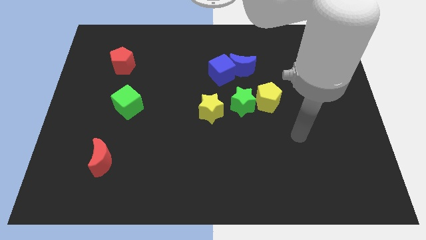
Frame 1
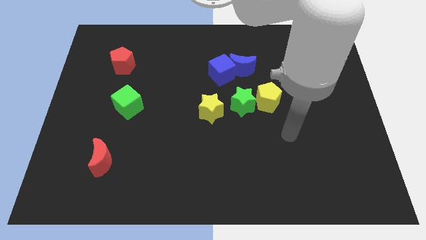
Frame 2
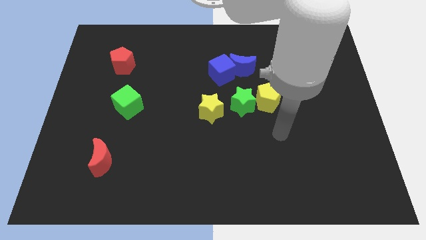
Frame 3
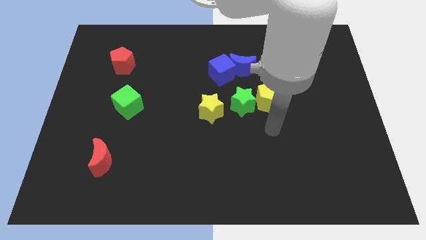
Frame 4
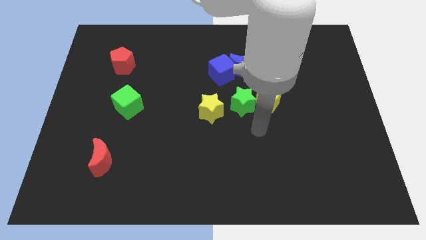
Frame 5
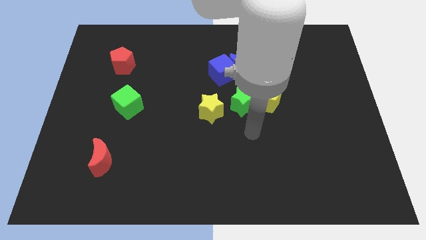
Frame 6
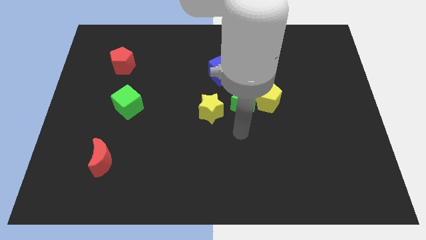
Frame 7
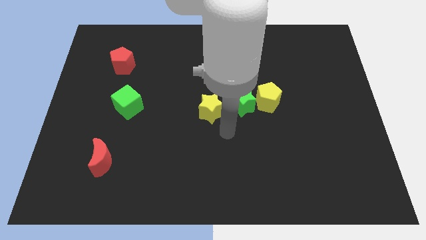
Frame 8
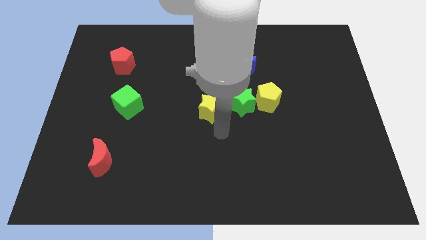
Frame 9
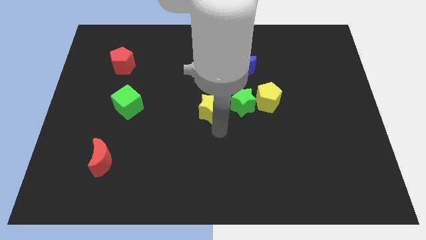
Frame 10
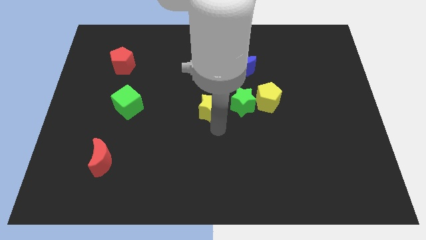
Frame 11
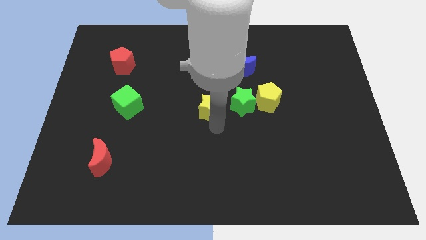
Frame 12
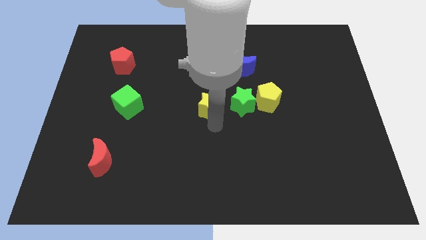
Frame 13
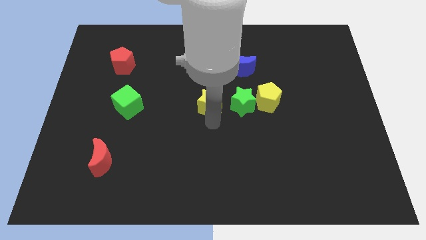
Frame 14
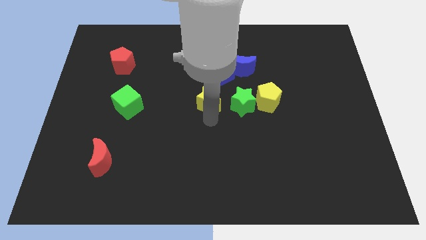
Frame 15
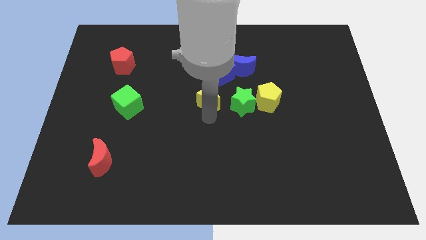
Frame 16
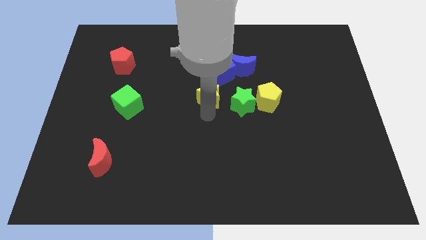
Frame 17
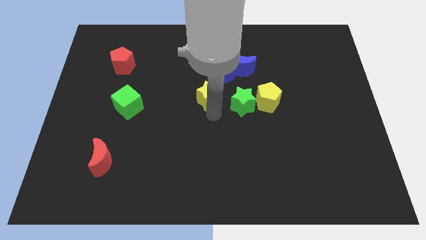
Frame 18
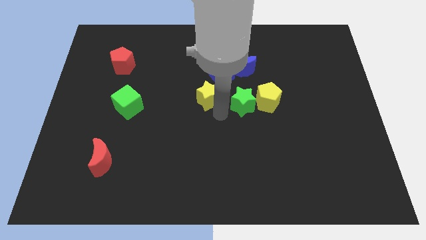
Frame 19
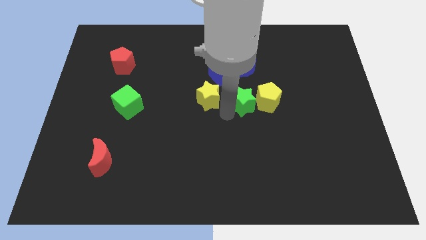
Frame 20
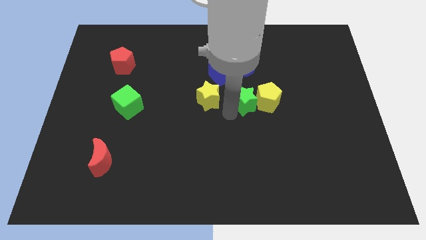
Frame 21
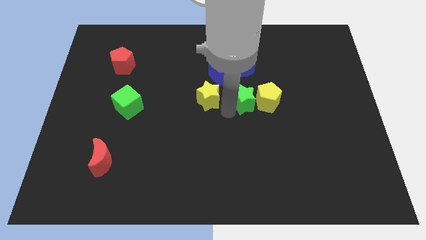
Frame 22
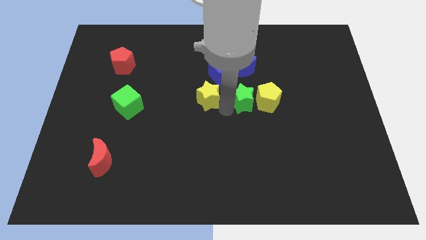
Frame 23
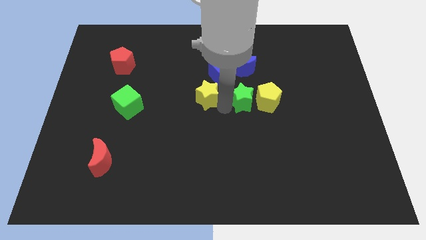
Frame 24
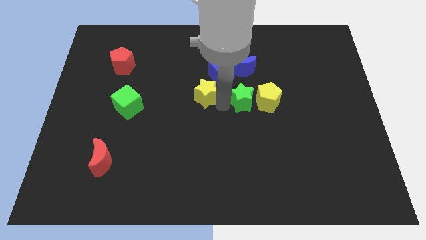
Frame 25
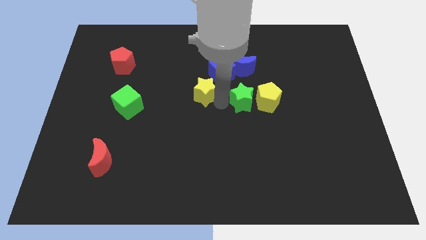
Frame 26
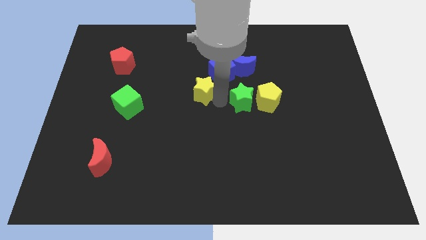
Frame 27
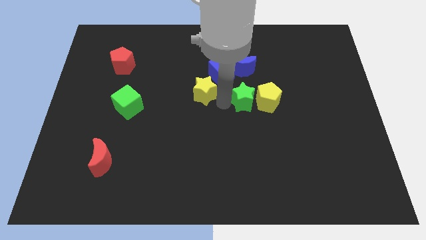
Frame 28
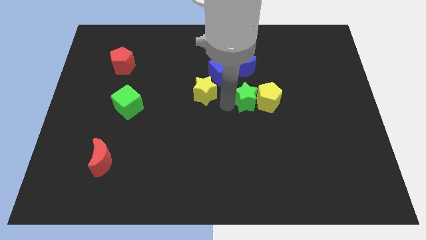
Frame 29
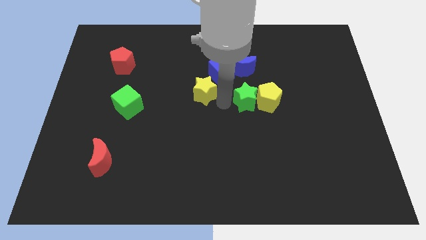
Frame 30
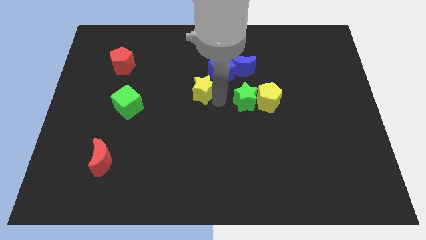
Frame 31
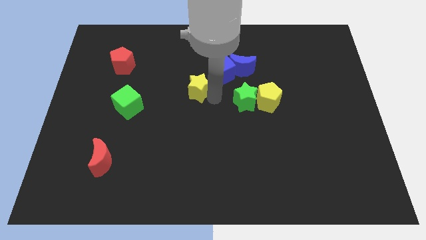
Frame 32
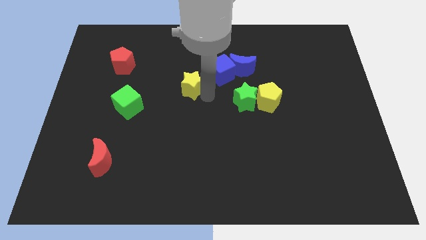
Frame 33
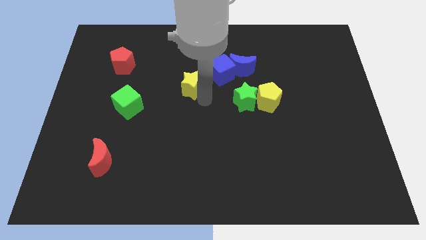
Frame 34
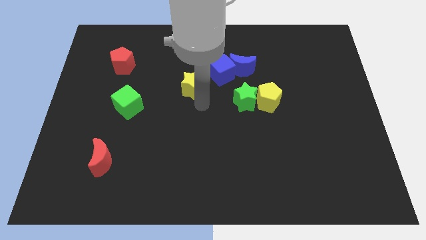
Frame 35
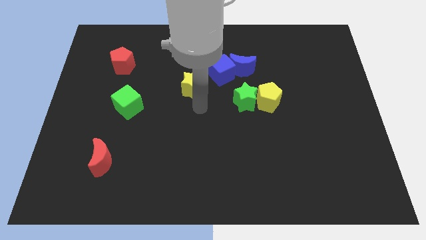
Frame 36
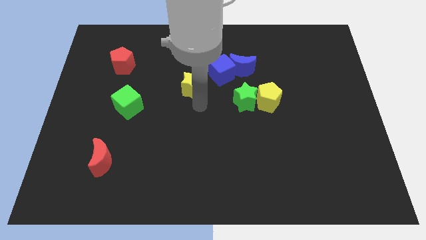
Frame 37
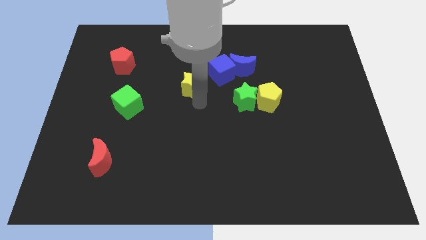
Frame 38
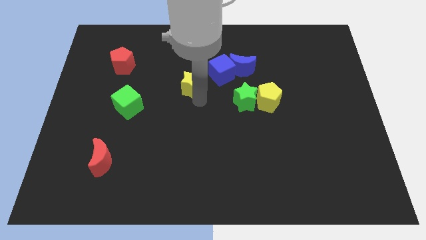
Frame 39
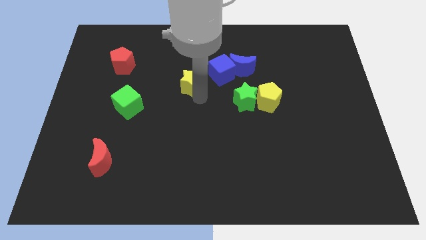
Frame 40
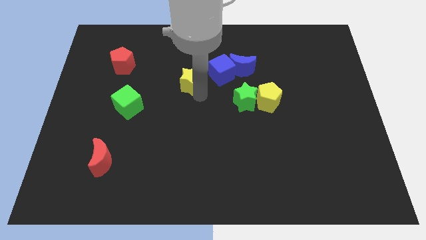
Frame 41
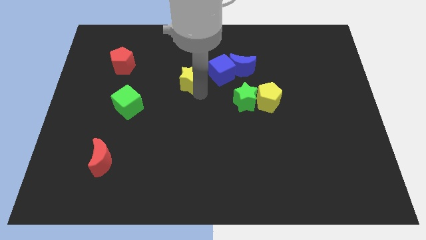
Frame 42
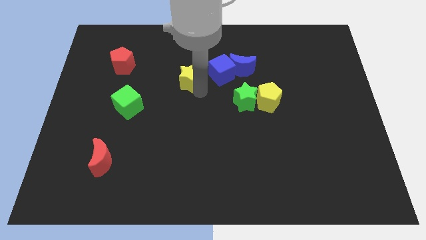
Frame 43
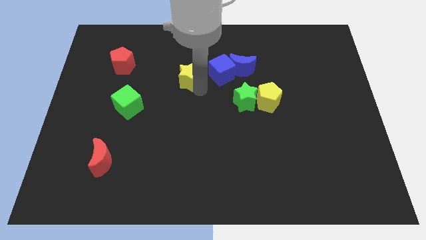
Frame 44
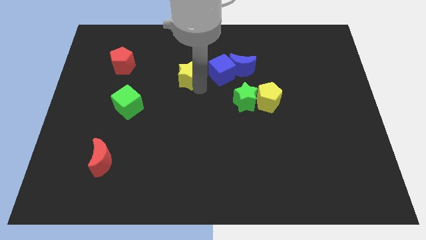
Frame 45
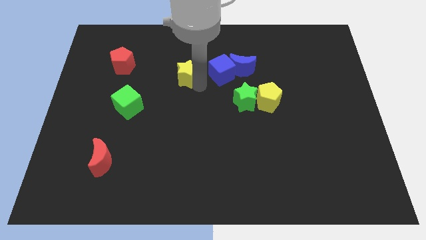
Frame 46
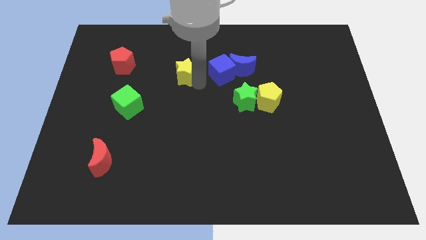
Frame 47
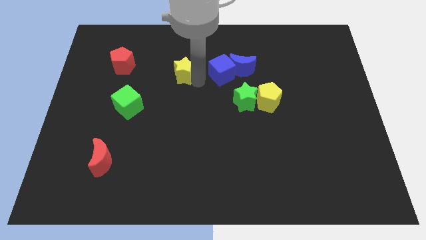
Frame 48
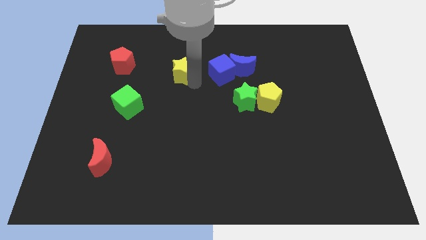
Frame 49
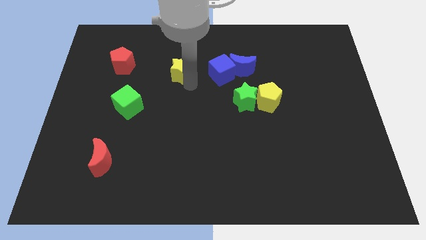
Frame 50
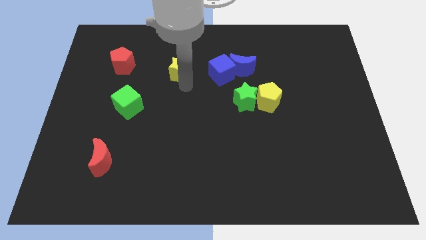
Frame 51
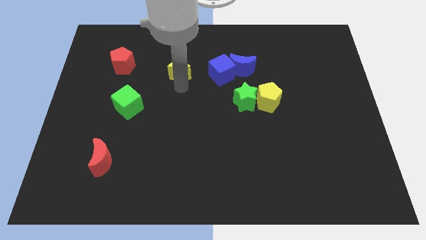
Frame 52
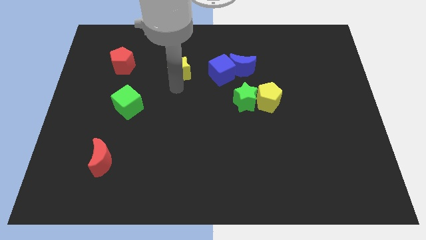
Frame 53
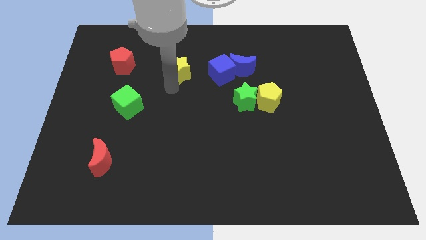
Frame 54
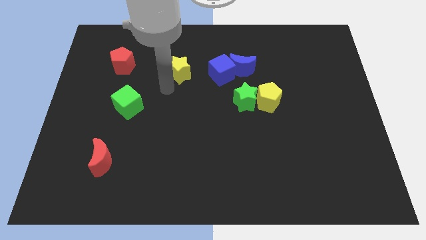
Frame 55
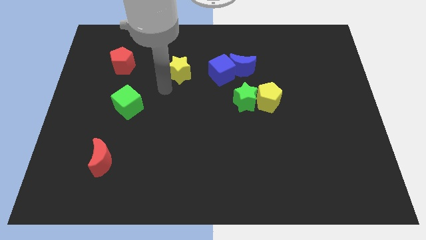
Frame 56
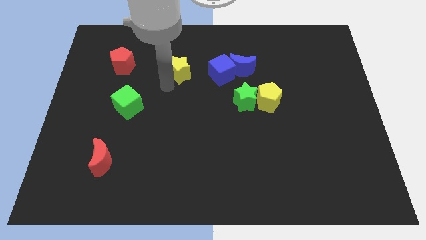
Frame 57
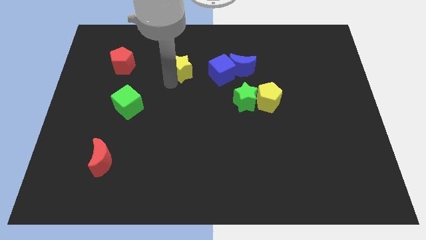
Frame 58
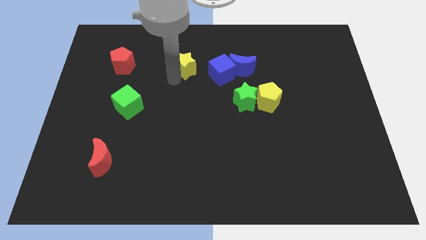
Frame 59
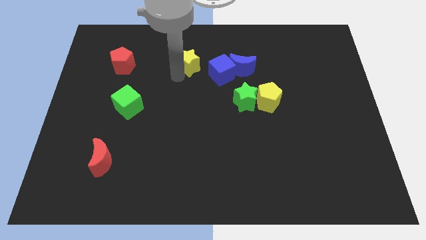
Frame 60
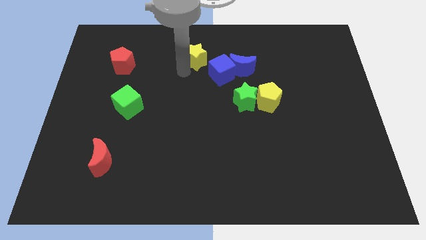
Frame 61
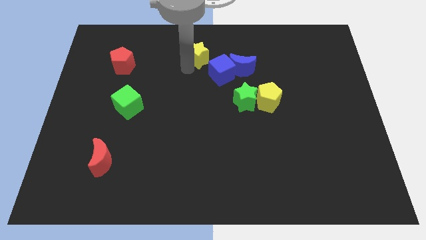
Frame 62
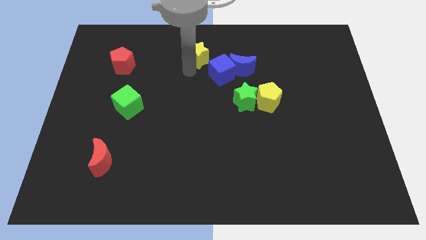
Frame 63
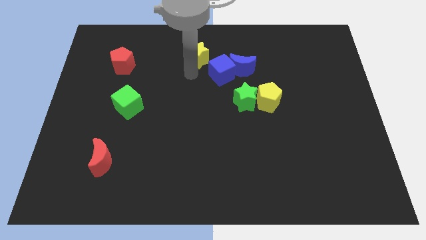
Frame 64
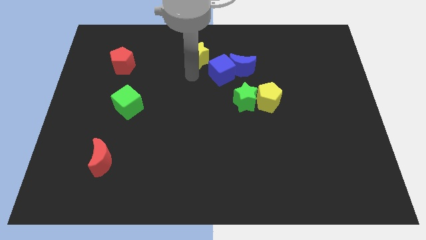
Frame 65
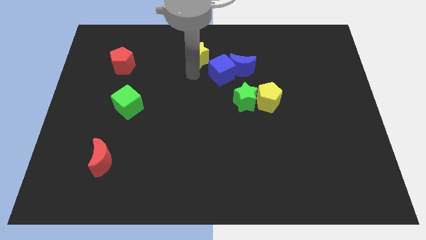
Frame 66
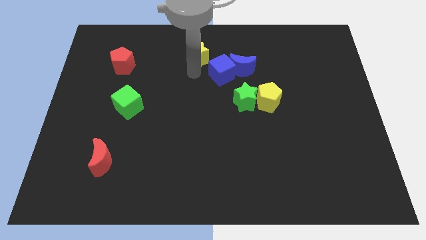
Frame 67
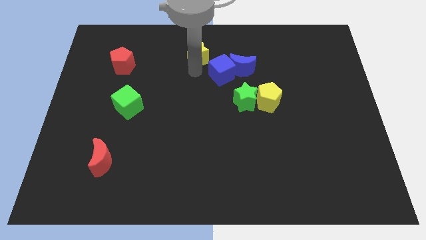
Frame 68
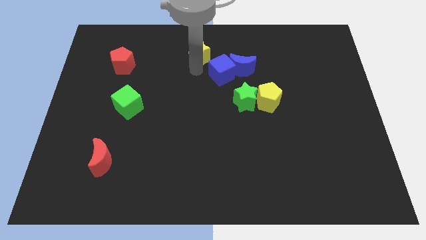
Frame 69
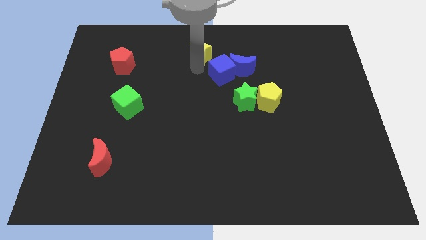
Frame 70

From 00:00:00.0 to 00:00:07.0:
push the yellow star to the towards your base

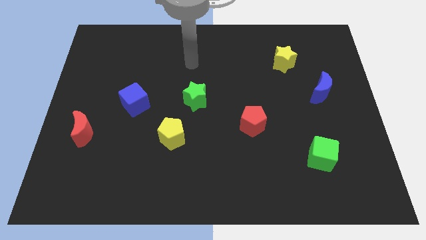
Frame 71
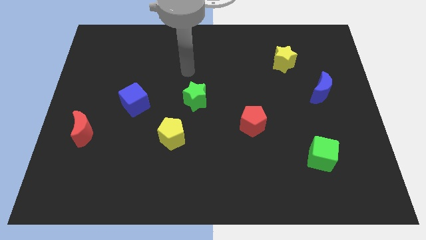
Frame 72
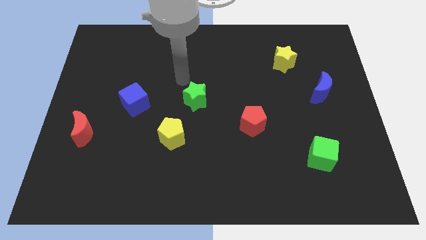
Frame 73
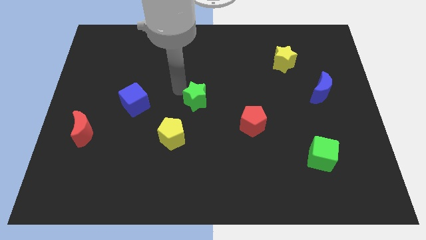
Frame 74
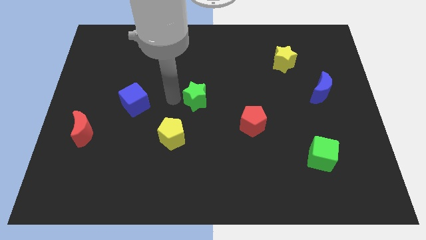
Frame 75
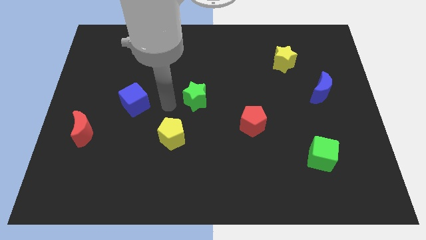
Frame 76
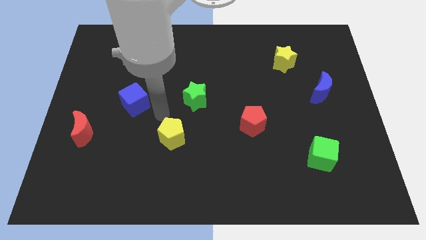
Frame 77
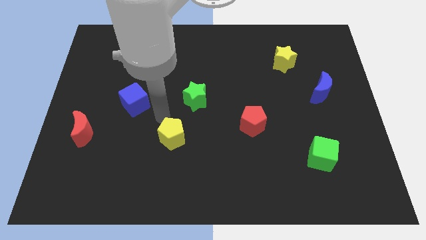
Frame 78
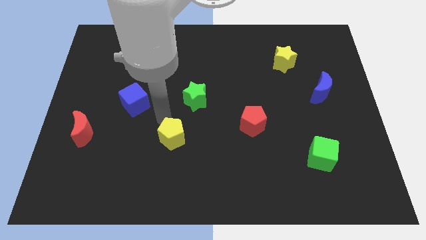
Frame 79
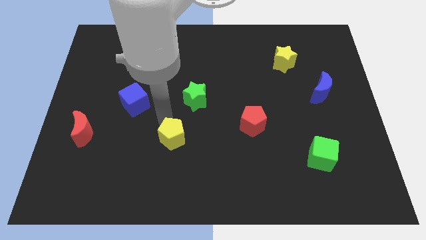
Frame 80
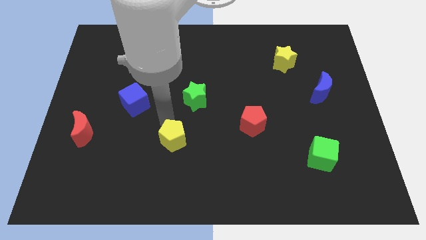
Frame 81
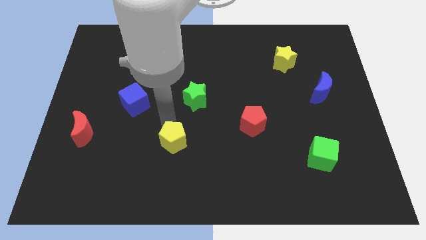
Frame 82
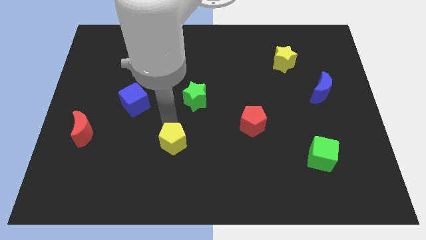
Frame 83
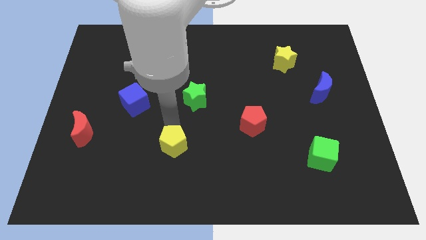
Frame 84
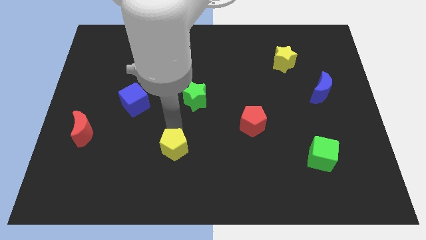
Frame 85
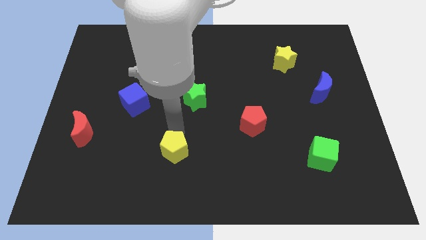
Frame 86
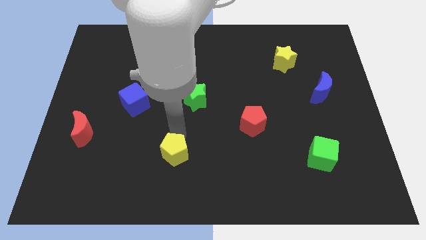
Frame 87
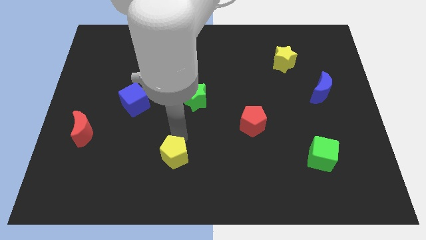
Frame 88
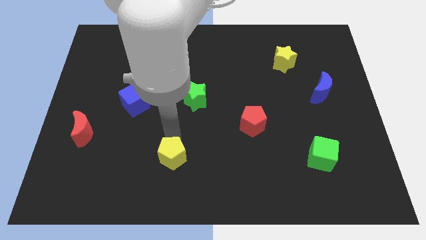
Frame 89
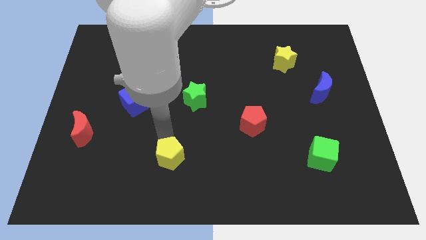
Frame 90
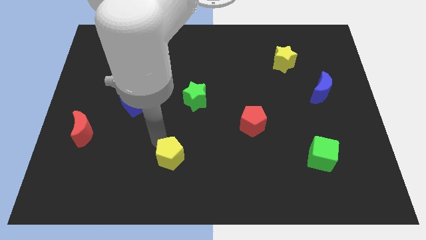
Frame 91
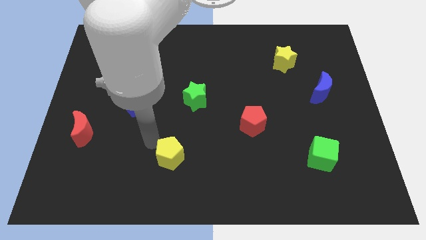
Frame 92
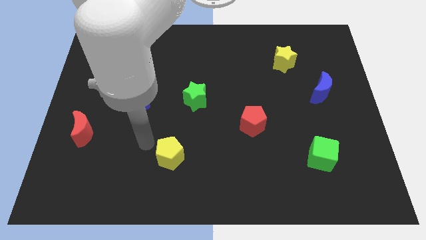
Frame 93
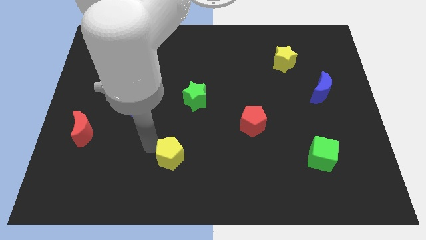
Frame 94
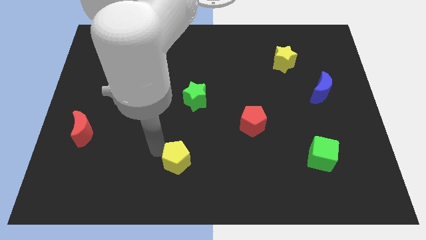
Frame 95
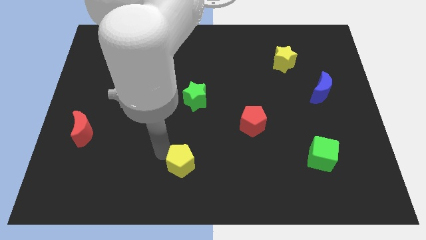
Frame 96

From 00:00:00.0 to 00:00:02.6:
put the yellow pentagon to the bottom
